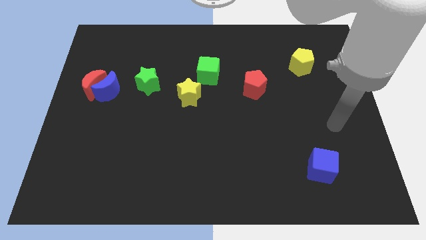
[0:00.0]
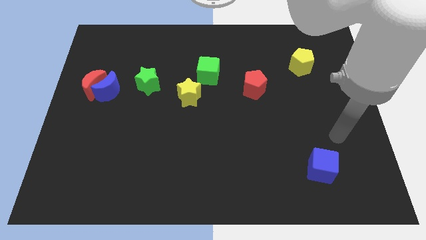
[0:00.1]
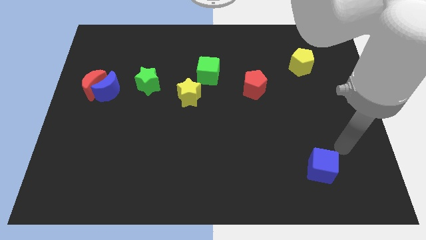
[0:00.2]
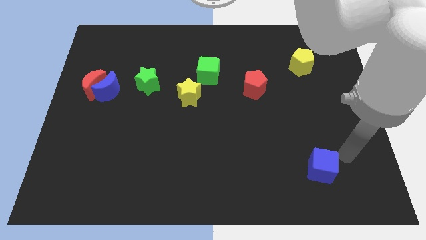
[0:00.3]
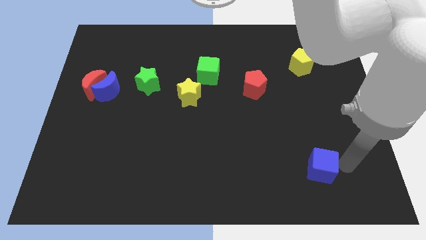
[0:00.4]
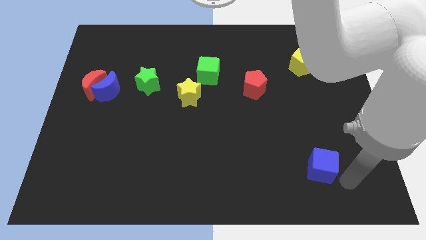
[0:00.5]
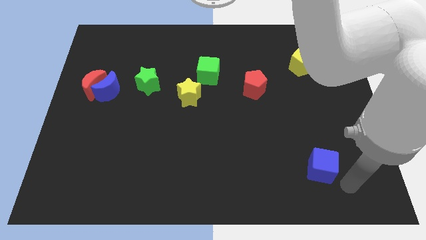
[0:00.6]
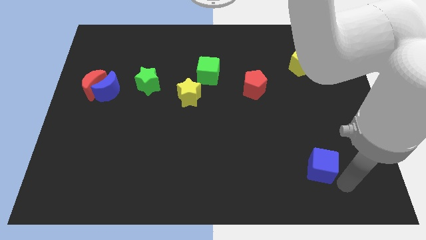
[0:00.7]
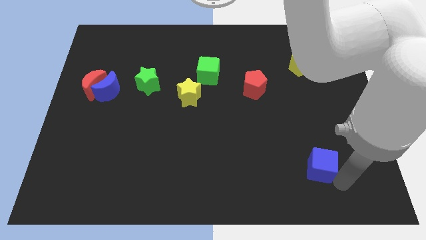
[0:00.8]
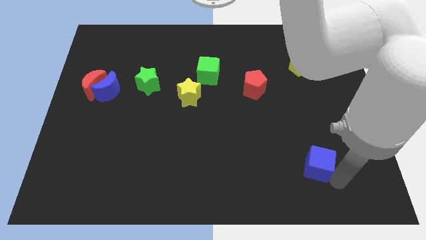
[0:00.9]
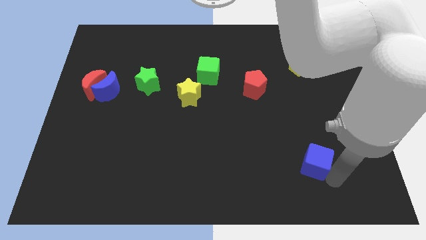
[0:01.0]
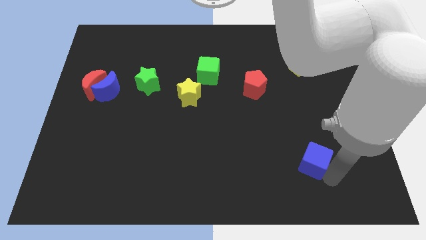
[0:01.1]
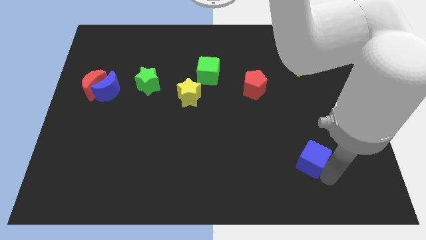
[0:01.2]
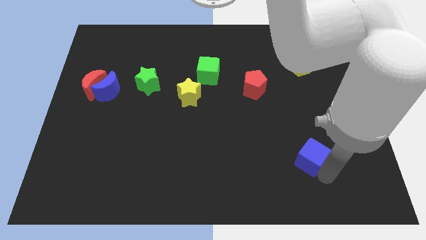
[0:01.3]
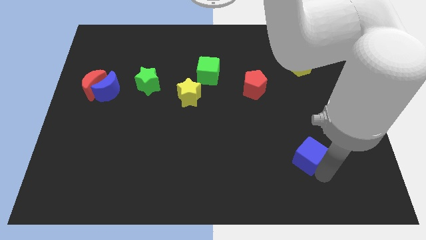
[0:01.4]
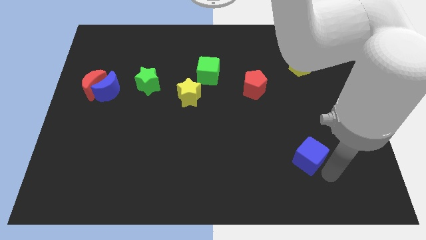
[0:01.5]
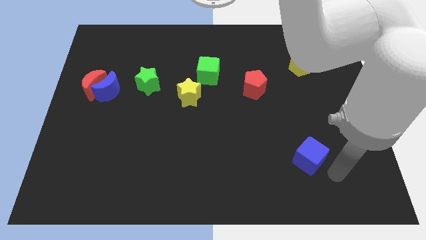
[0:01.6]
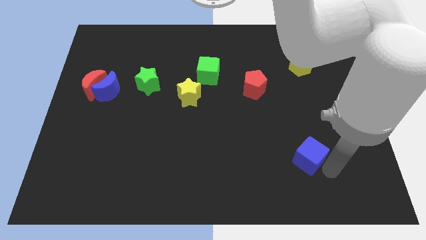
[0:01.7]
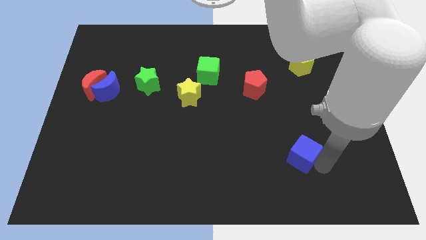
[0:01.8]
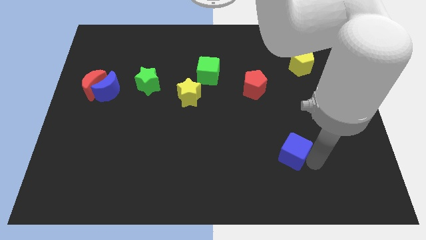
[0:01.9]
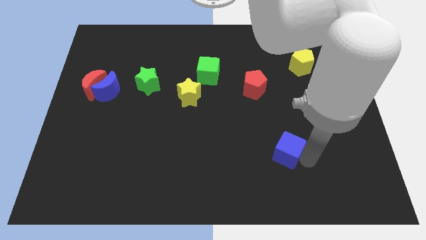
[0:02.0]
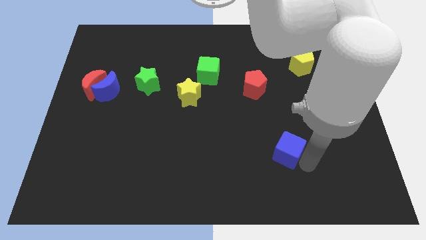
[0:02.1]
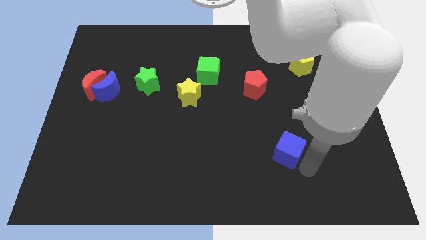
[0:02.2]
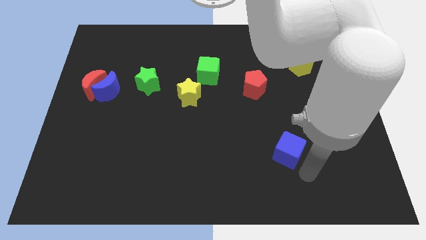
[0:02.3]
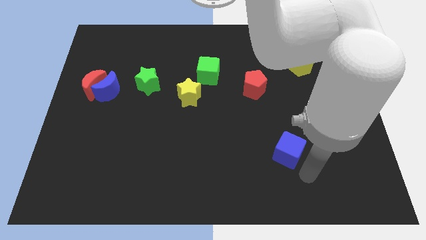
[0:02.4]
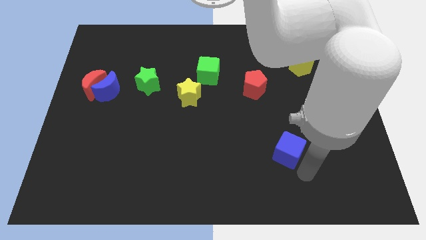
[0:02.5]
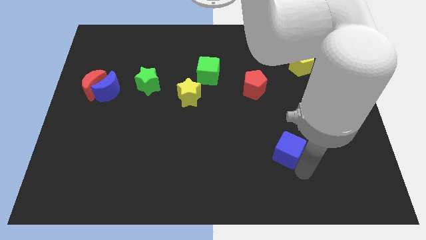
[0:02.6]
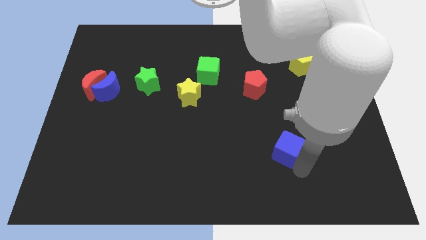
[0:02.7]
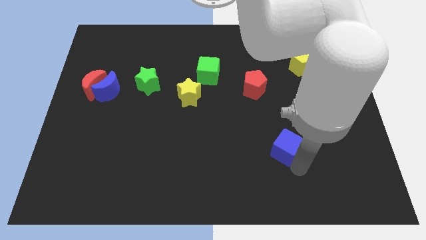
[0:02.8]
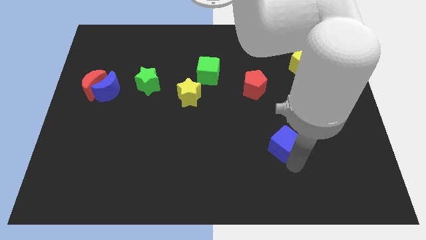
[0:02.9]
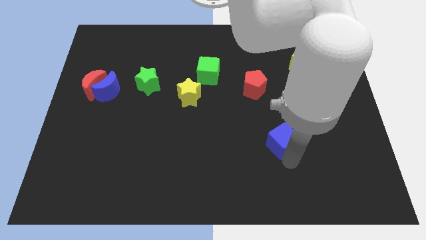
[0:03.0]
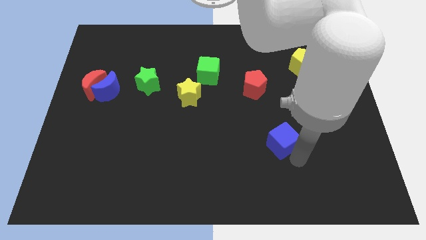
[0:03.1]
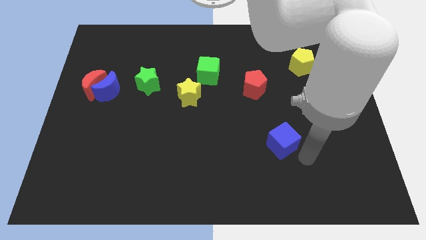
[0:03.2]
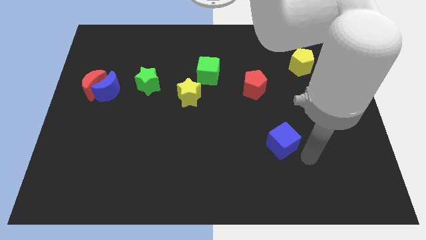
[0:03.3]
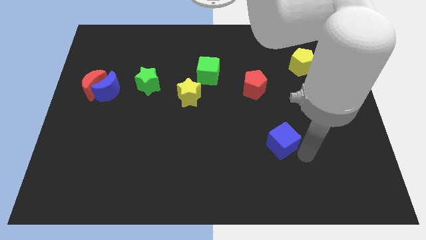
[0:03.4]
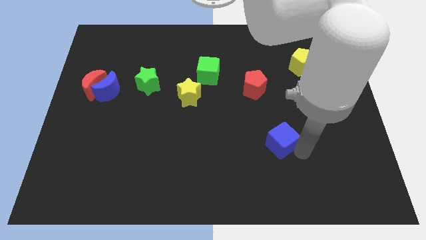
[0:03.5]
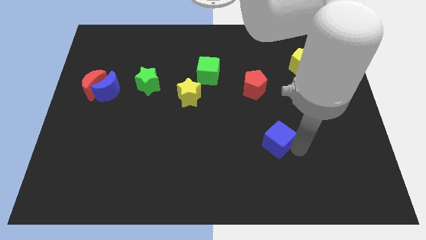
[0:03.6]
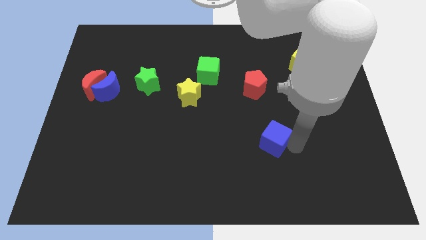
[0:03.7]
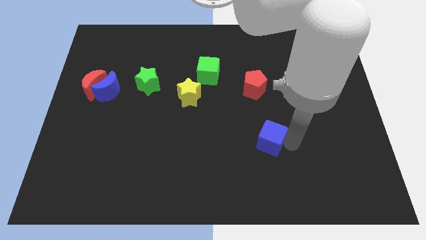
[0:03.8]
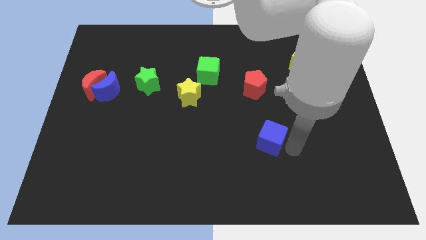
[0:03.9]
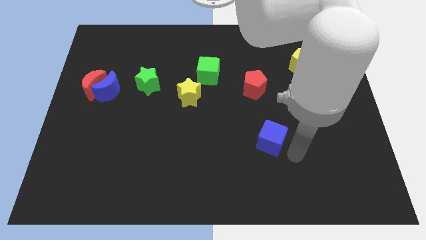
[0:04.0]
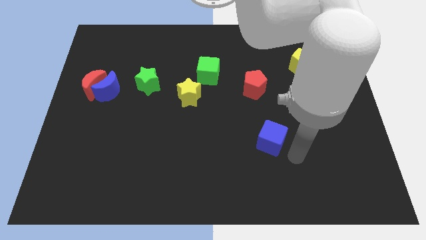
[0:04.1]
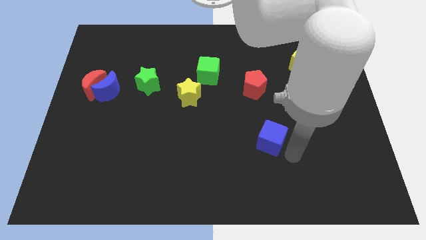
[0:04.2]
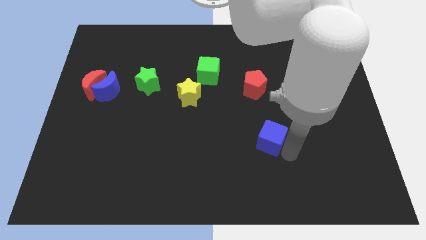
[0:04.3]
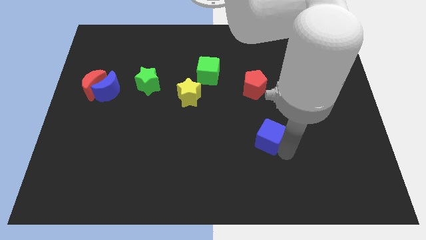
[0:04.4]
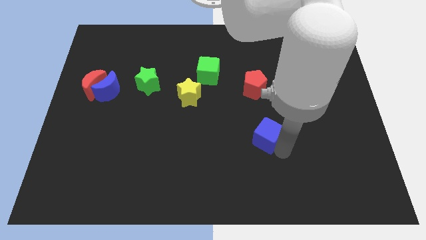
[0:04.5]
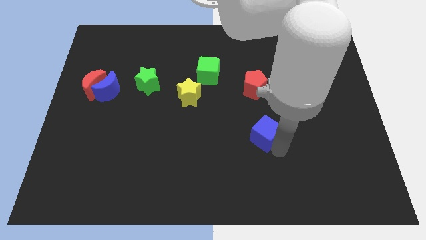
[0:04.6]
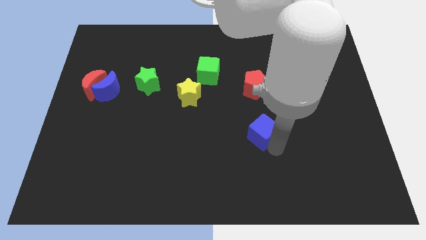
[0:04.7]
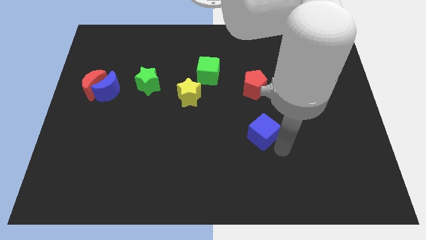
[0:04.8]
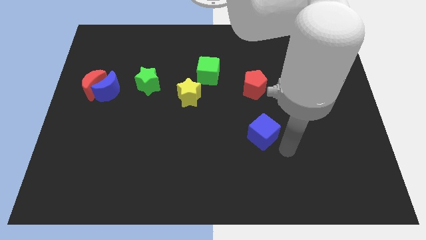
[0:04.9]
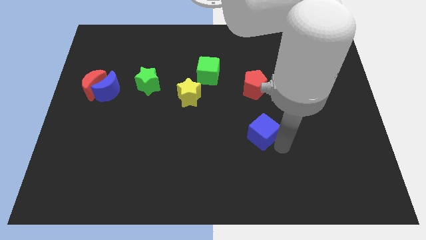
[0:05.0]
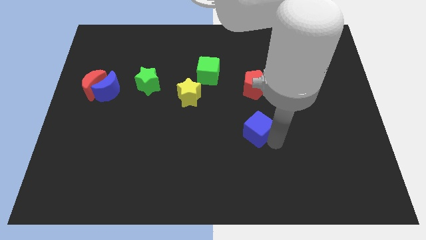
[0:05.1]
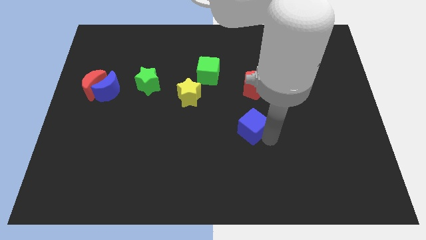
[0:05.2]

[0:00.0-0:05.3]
slide the blue cube to the center of the board

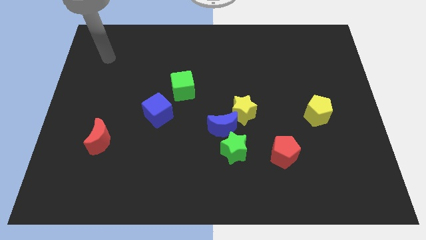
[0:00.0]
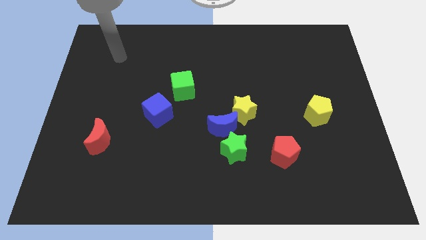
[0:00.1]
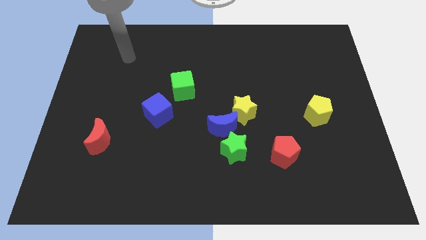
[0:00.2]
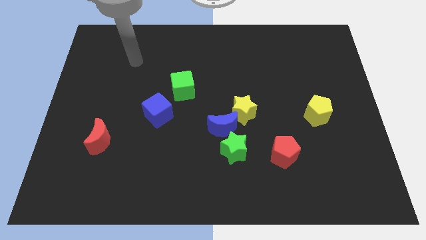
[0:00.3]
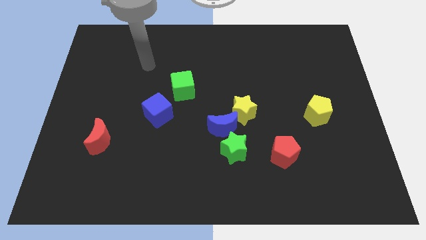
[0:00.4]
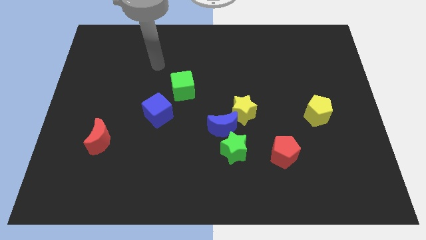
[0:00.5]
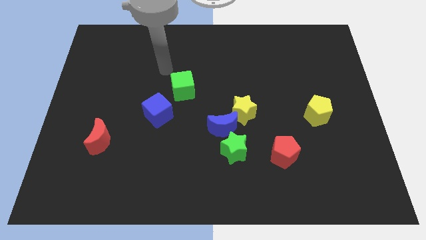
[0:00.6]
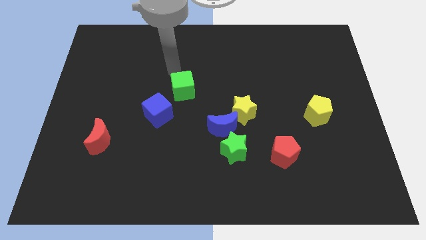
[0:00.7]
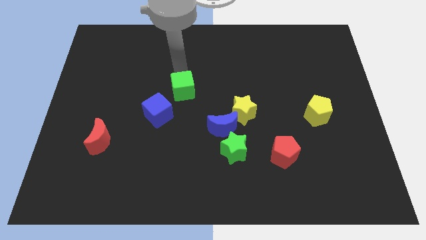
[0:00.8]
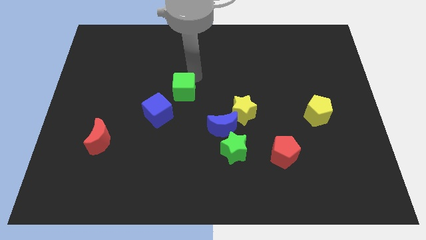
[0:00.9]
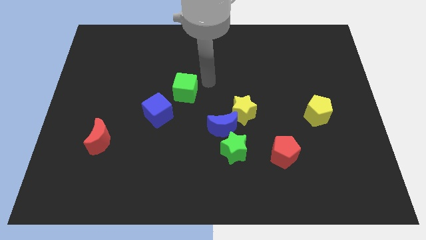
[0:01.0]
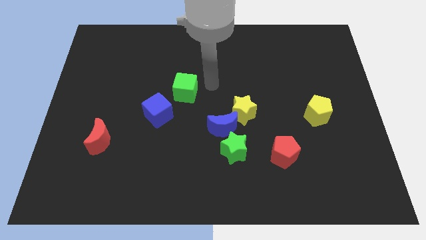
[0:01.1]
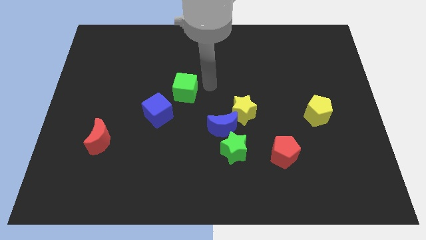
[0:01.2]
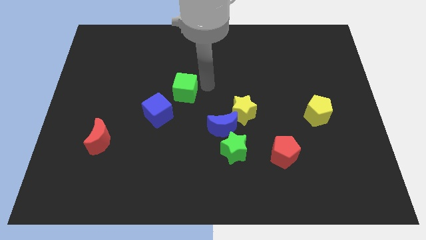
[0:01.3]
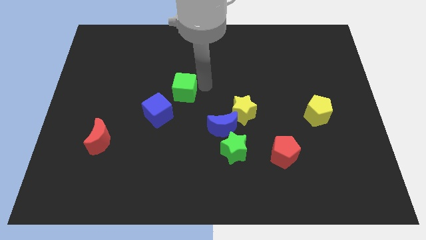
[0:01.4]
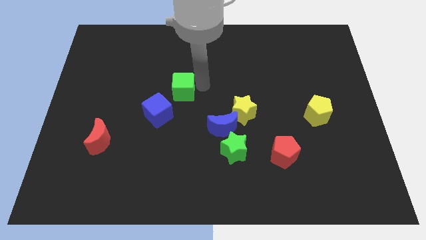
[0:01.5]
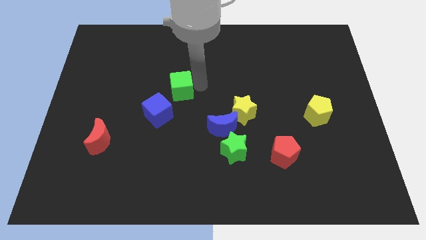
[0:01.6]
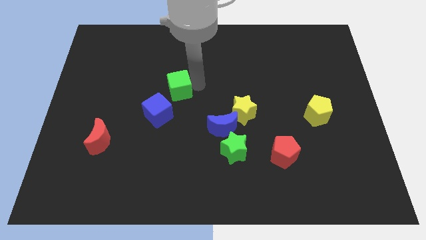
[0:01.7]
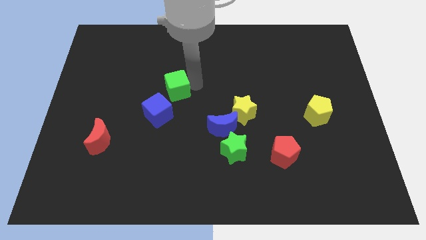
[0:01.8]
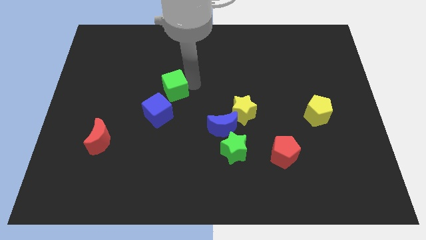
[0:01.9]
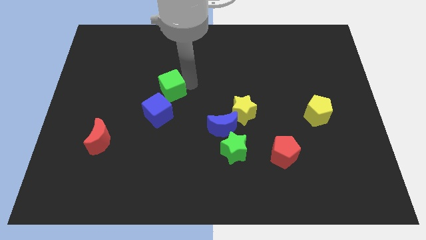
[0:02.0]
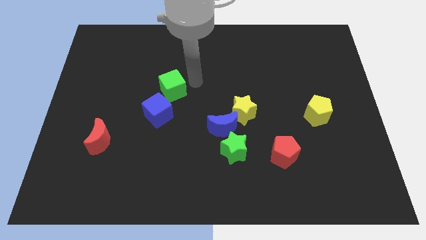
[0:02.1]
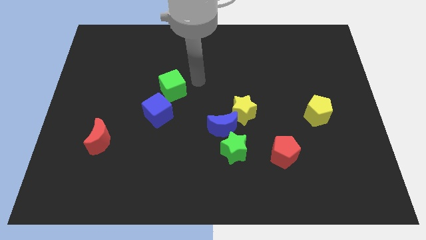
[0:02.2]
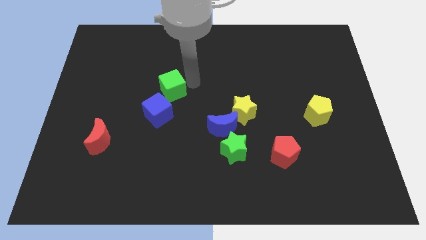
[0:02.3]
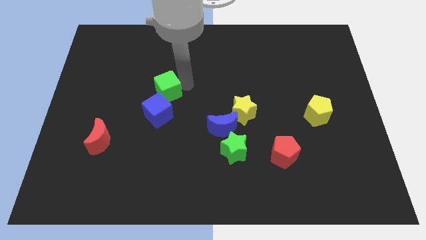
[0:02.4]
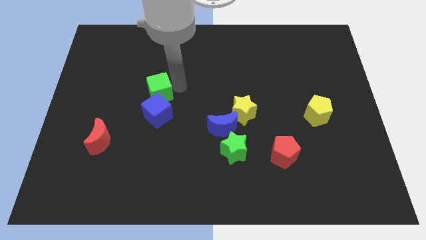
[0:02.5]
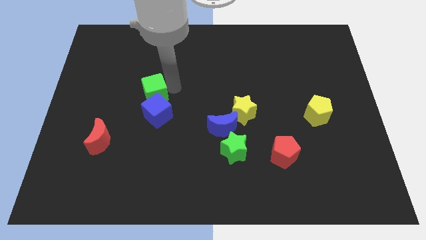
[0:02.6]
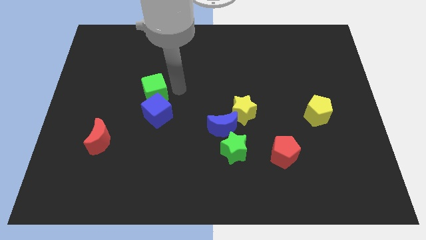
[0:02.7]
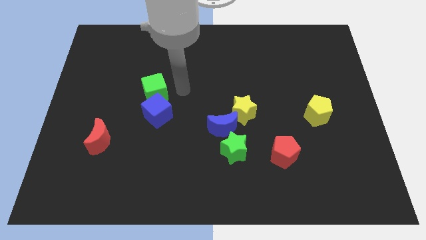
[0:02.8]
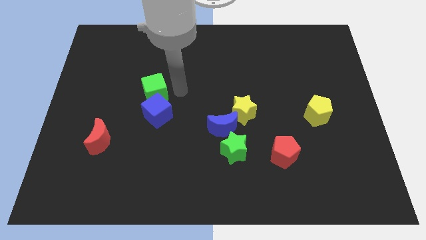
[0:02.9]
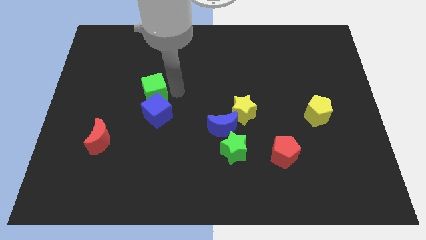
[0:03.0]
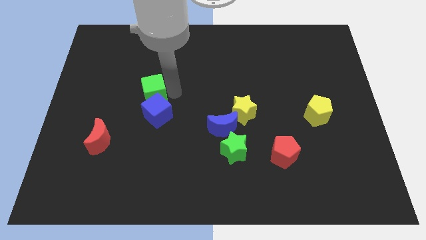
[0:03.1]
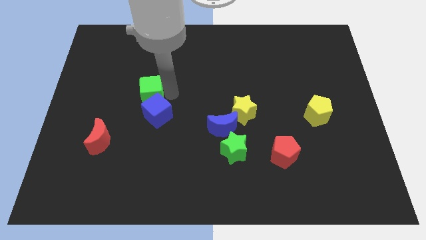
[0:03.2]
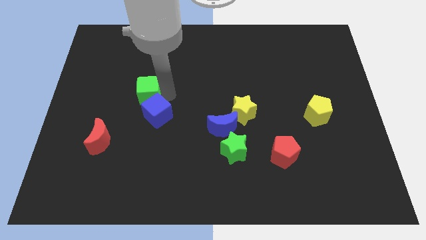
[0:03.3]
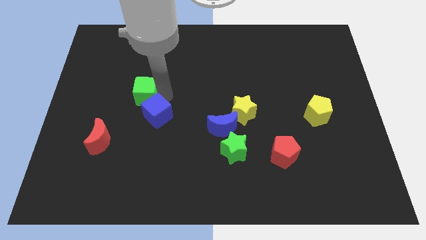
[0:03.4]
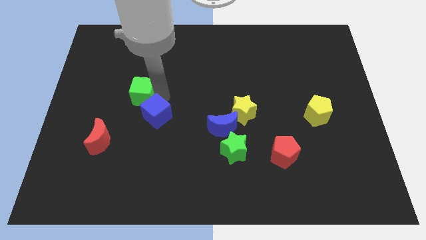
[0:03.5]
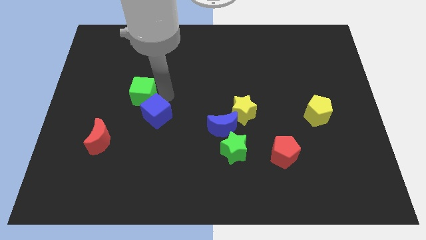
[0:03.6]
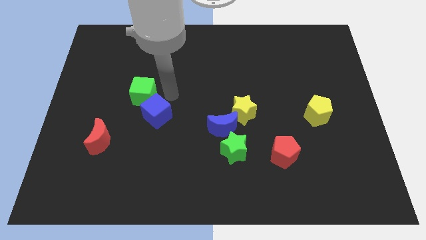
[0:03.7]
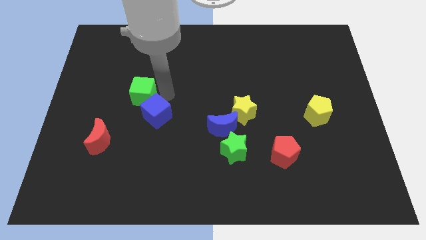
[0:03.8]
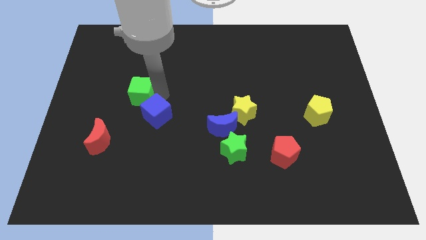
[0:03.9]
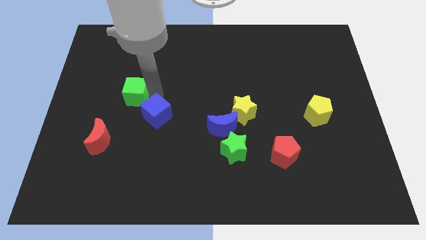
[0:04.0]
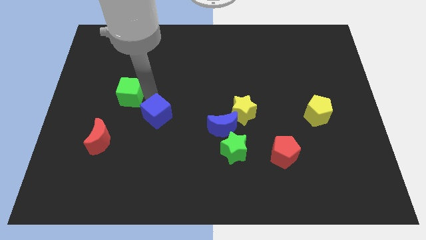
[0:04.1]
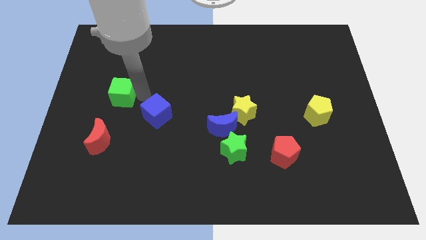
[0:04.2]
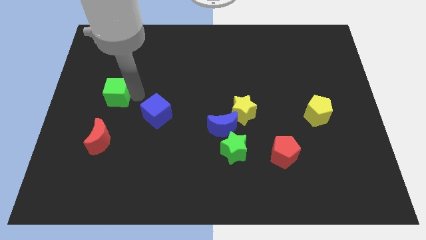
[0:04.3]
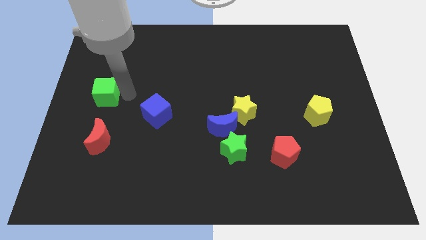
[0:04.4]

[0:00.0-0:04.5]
put the green cube to the left side
